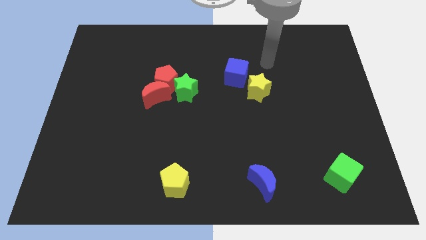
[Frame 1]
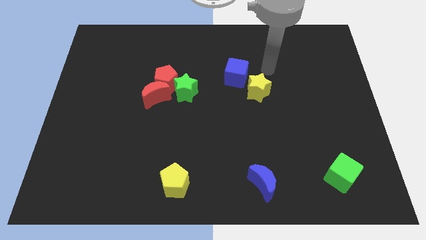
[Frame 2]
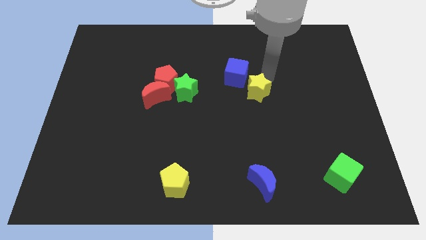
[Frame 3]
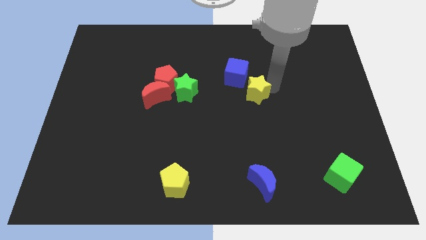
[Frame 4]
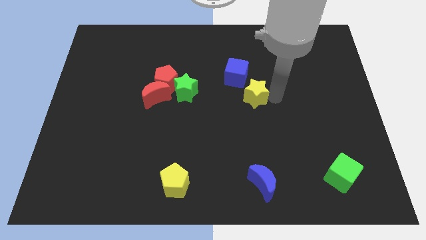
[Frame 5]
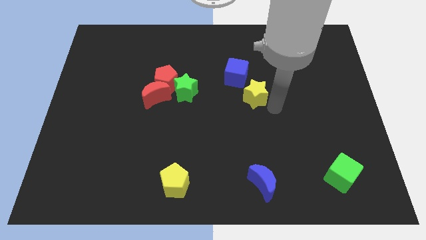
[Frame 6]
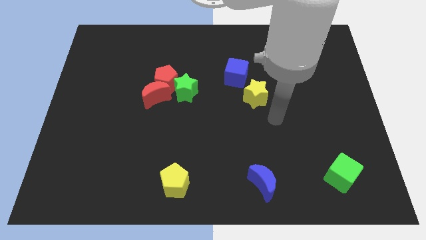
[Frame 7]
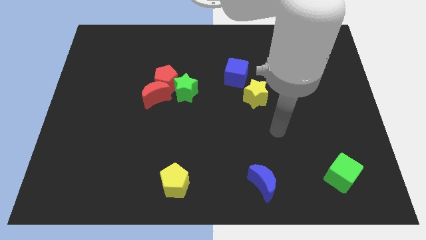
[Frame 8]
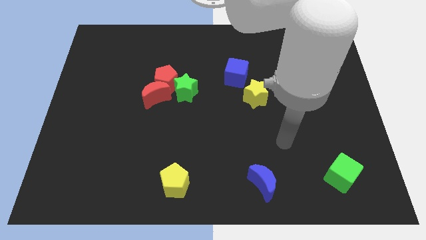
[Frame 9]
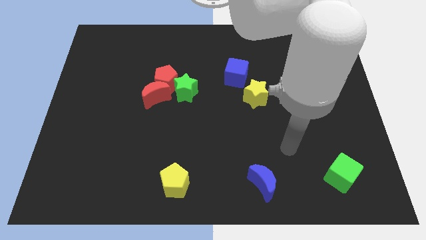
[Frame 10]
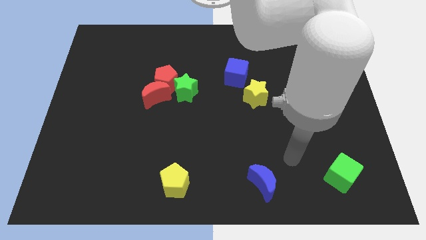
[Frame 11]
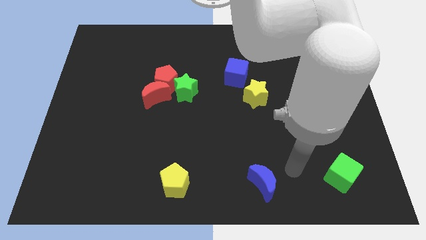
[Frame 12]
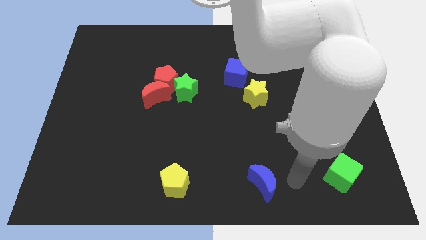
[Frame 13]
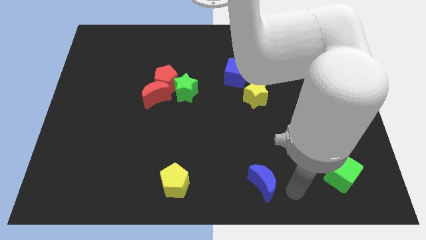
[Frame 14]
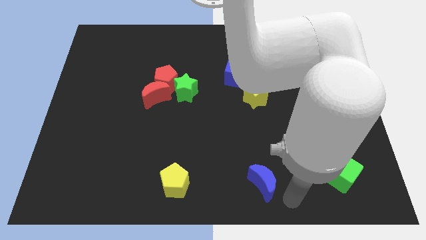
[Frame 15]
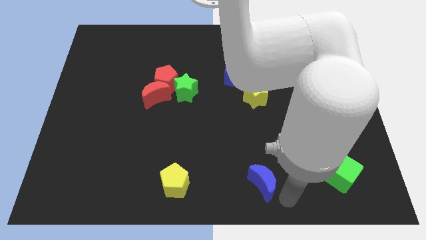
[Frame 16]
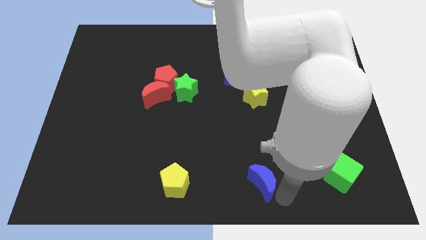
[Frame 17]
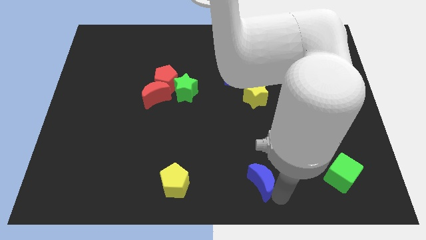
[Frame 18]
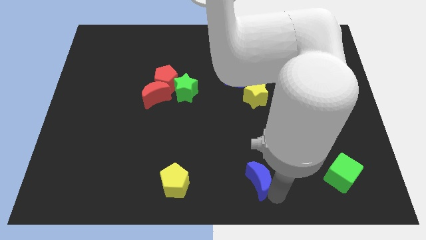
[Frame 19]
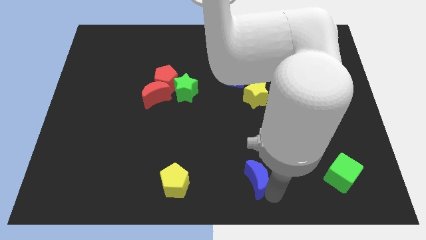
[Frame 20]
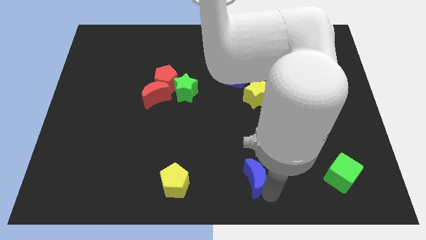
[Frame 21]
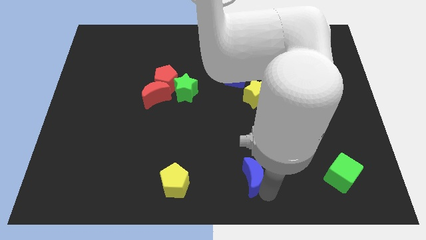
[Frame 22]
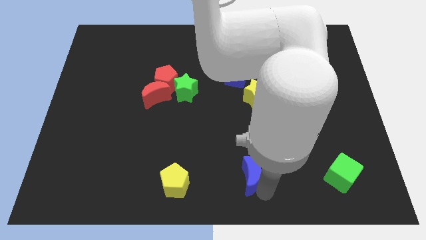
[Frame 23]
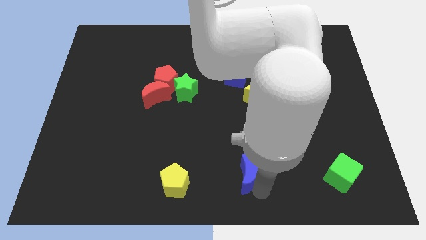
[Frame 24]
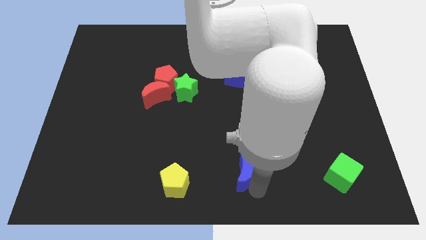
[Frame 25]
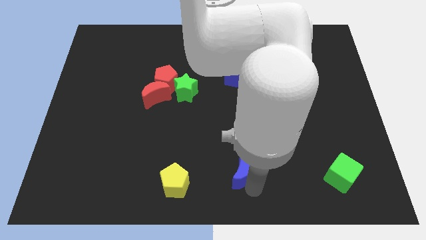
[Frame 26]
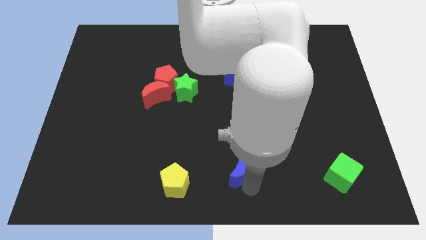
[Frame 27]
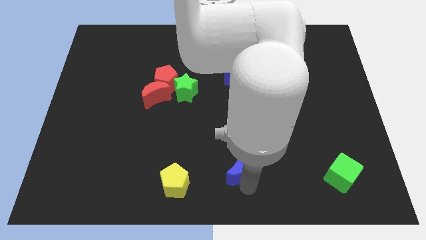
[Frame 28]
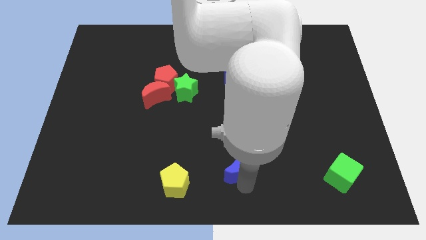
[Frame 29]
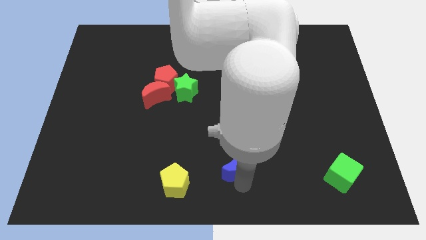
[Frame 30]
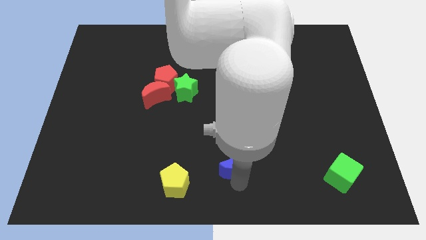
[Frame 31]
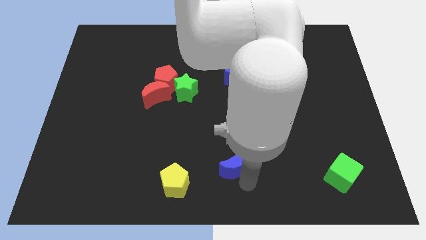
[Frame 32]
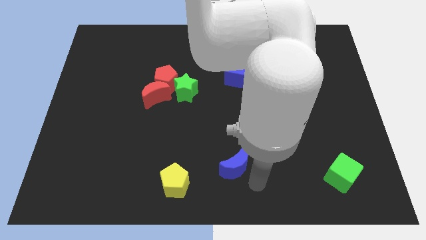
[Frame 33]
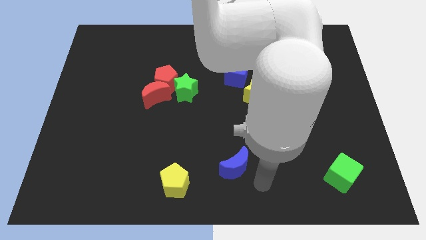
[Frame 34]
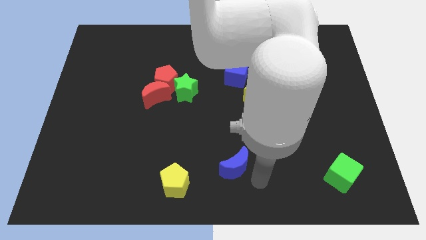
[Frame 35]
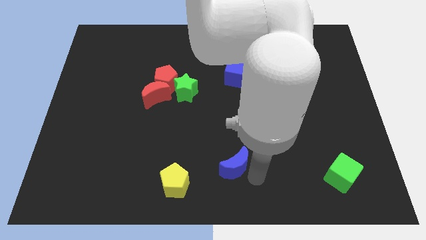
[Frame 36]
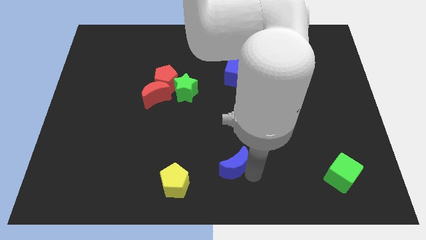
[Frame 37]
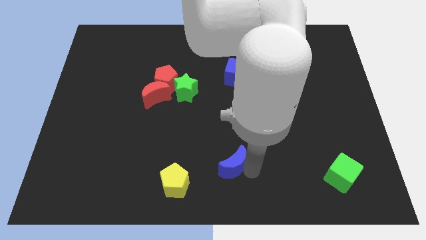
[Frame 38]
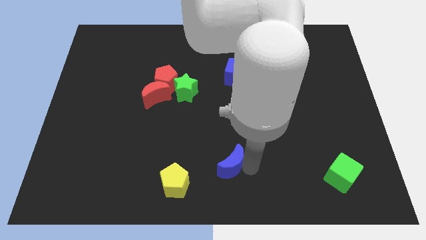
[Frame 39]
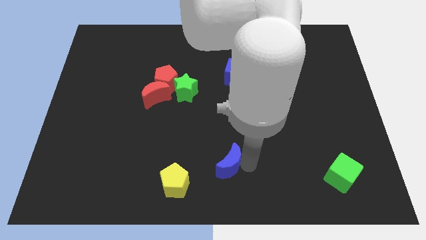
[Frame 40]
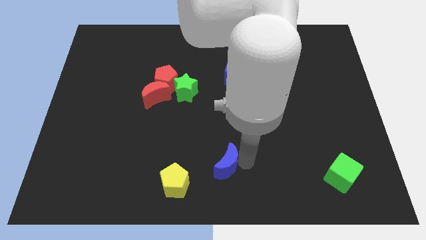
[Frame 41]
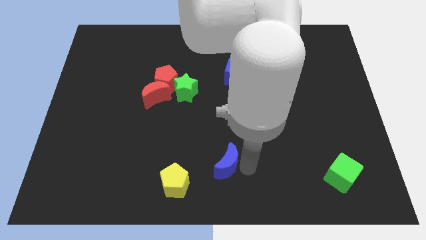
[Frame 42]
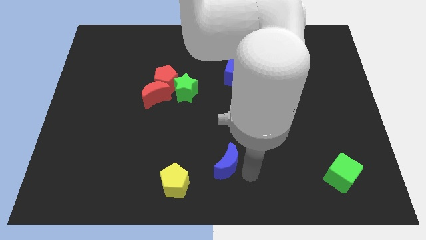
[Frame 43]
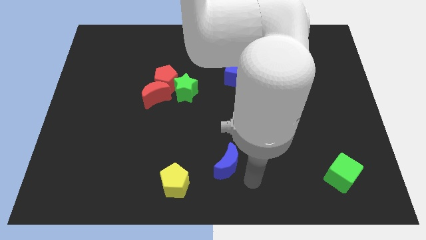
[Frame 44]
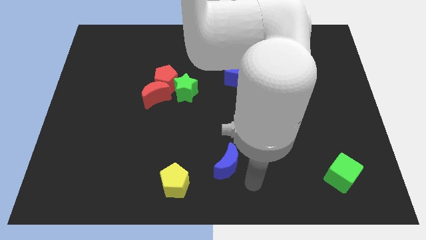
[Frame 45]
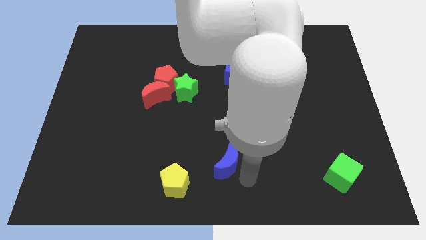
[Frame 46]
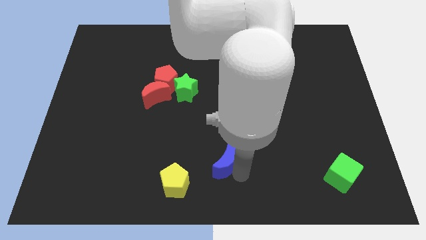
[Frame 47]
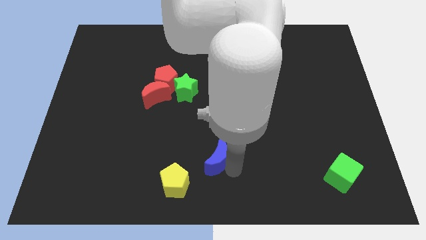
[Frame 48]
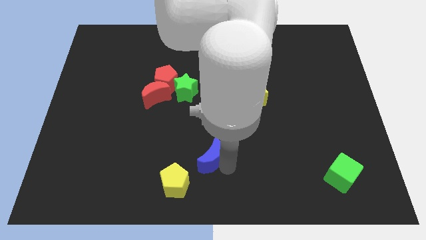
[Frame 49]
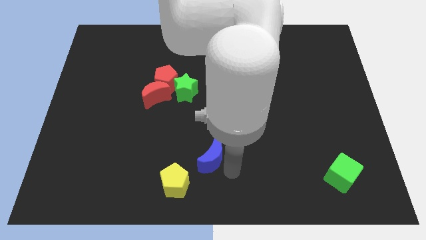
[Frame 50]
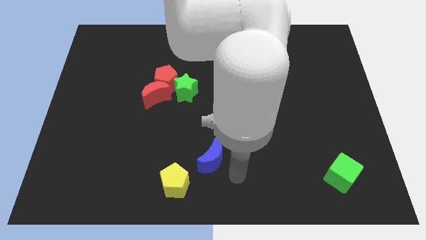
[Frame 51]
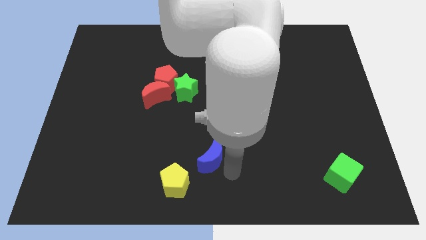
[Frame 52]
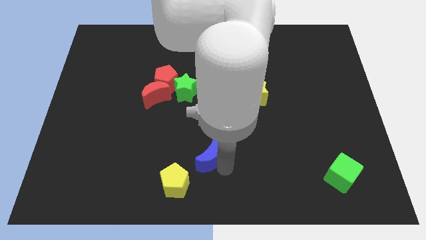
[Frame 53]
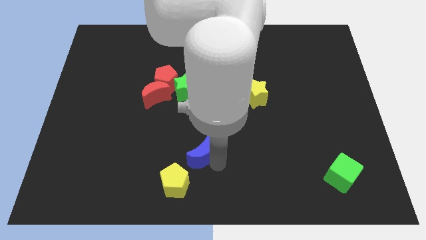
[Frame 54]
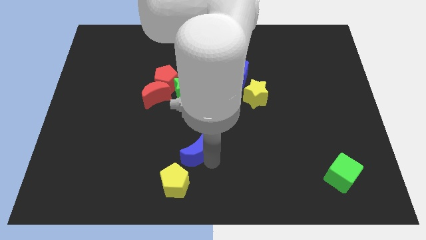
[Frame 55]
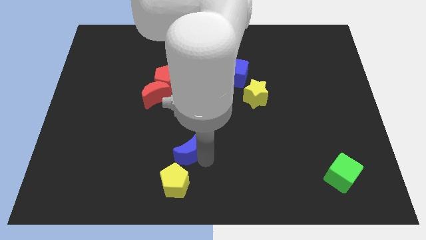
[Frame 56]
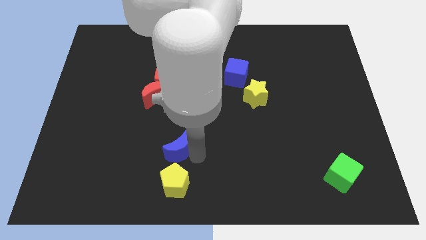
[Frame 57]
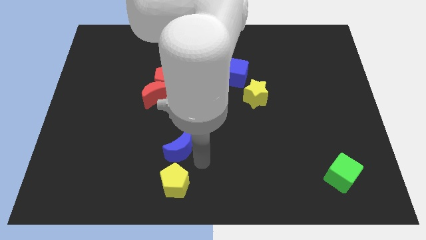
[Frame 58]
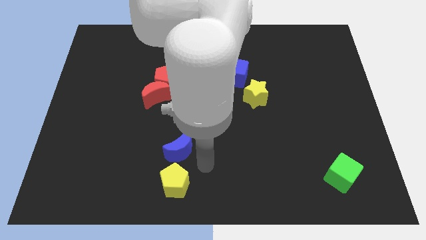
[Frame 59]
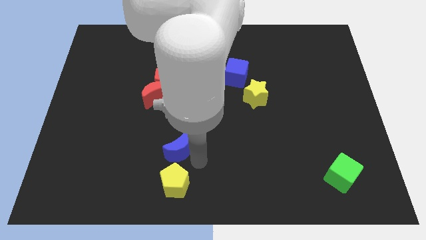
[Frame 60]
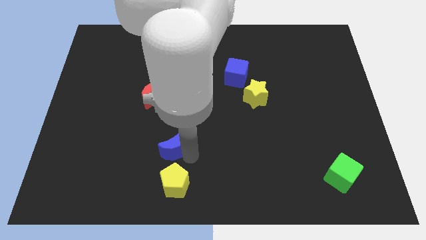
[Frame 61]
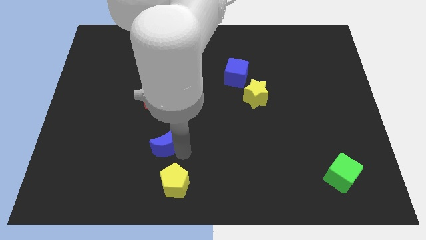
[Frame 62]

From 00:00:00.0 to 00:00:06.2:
move the blue moon to the bottom of the red moon

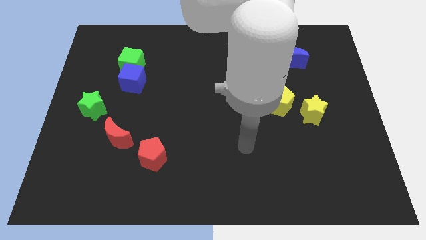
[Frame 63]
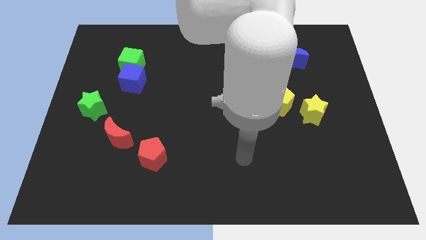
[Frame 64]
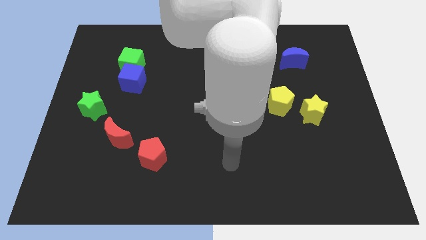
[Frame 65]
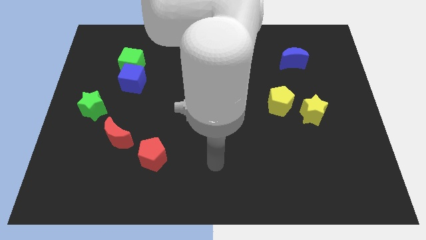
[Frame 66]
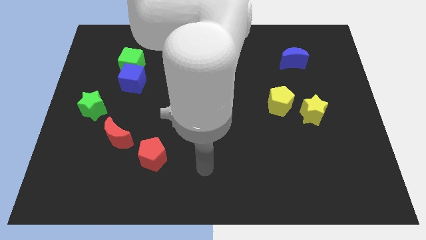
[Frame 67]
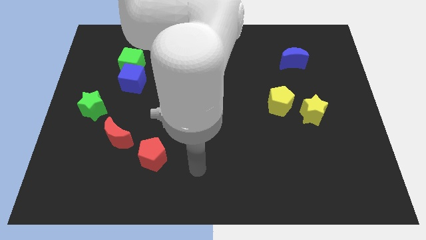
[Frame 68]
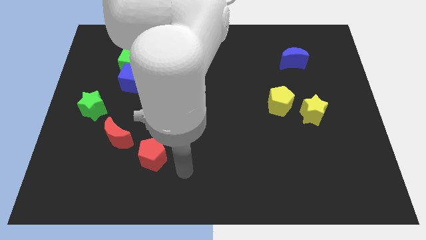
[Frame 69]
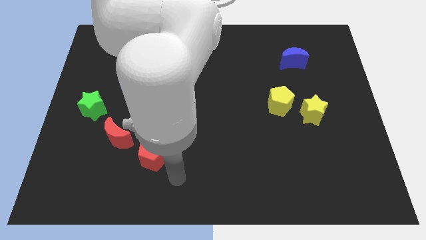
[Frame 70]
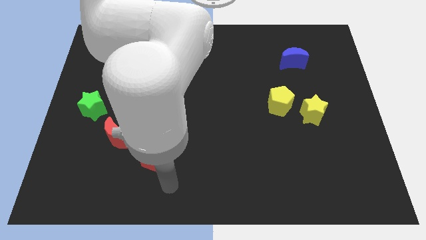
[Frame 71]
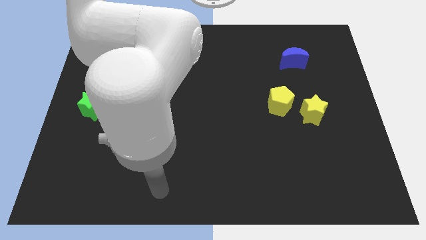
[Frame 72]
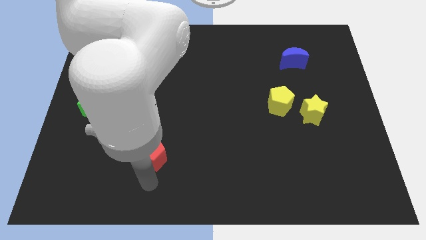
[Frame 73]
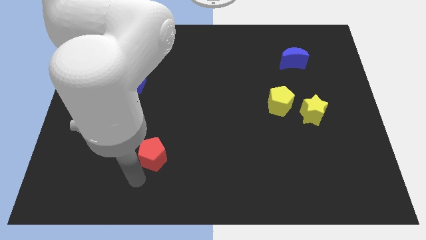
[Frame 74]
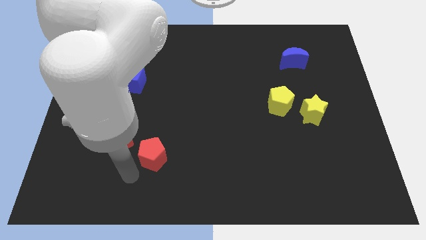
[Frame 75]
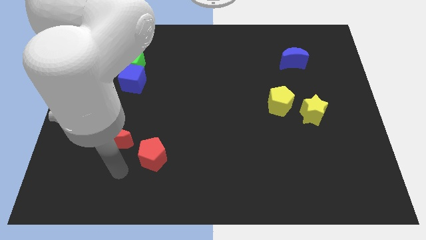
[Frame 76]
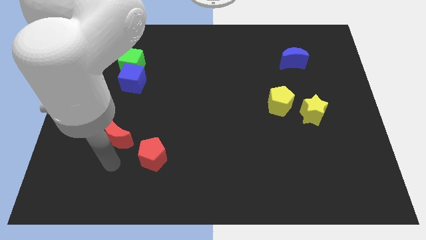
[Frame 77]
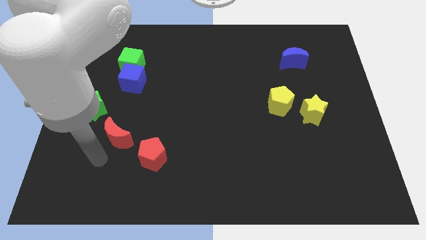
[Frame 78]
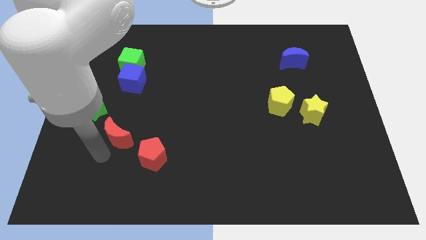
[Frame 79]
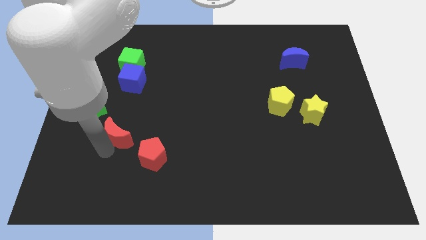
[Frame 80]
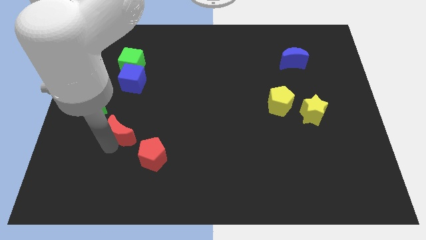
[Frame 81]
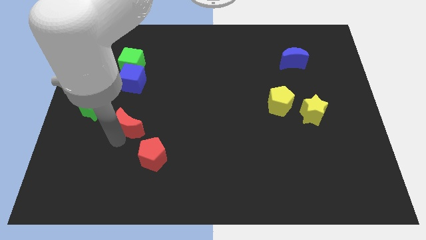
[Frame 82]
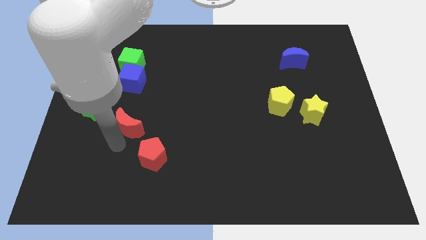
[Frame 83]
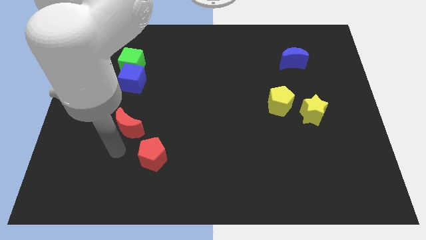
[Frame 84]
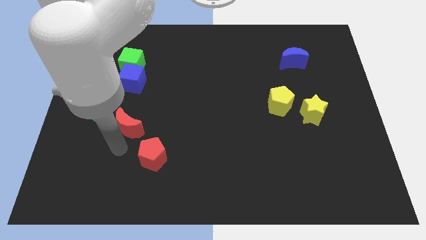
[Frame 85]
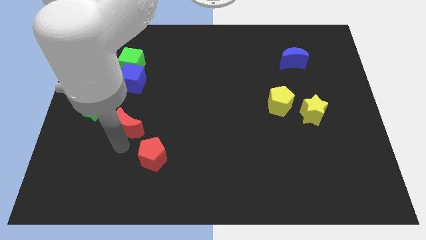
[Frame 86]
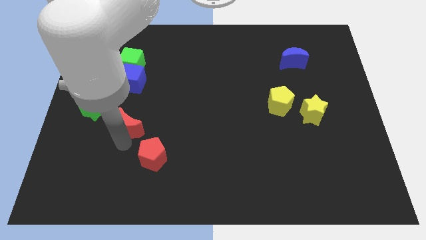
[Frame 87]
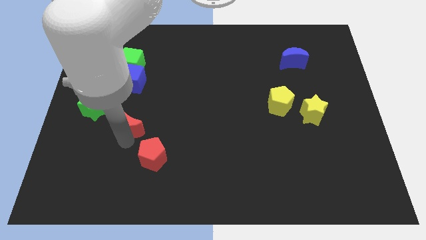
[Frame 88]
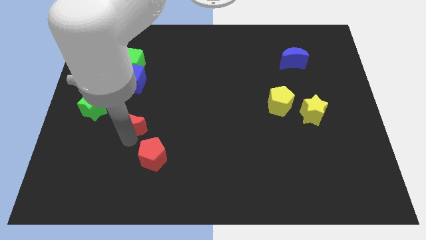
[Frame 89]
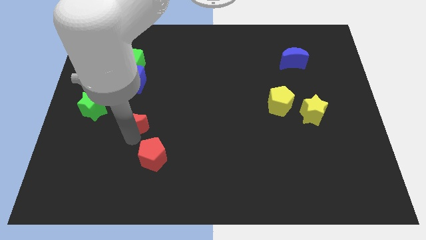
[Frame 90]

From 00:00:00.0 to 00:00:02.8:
move the red moon to the right side of the green star
